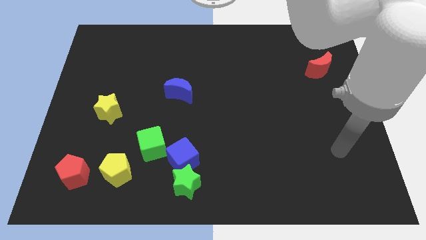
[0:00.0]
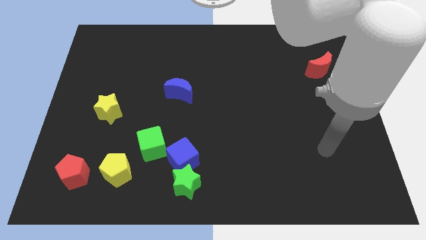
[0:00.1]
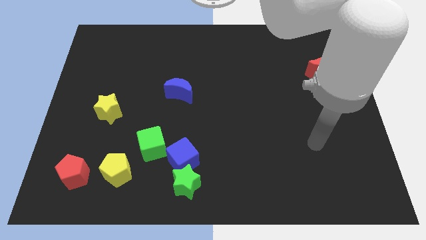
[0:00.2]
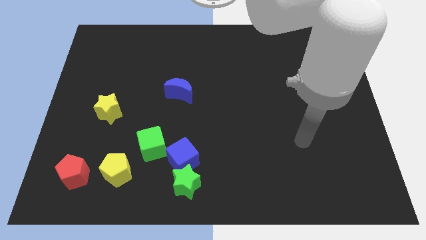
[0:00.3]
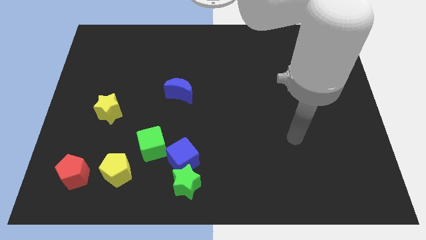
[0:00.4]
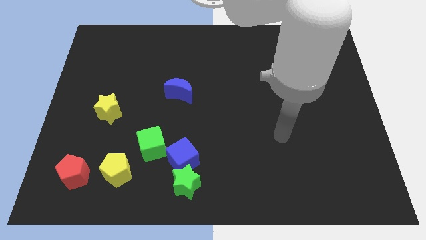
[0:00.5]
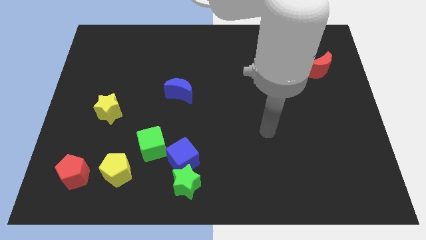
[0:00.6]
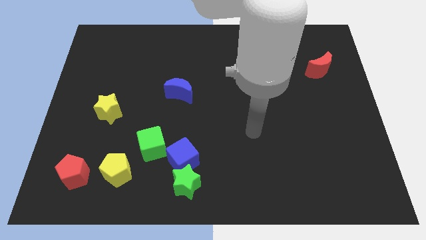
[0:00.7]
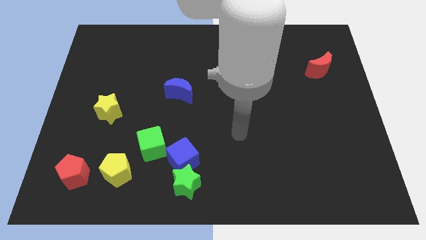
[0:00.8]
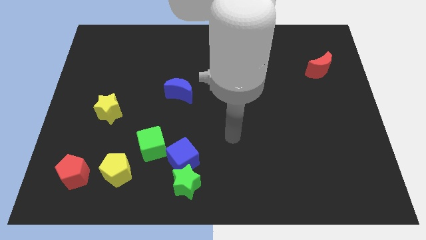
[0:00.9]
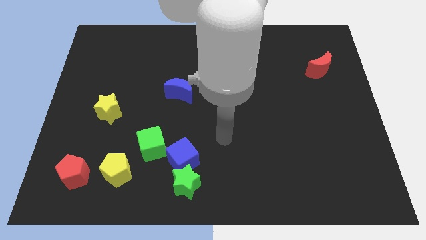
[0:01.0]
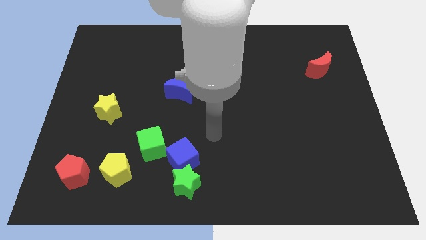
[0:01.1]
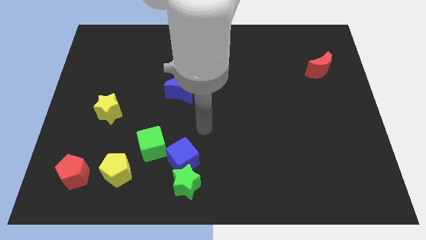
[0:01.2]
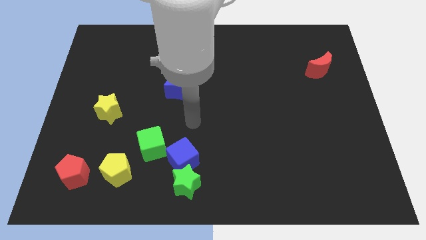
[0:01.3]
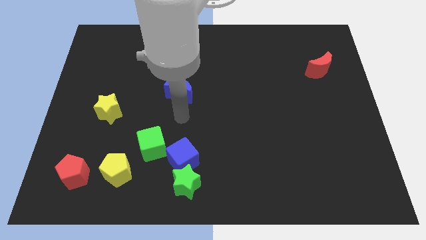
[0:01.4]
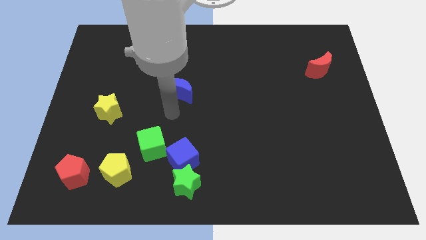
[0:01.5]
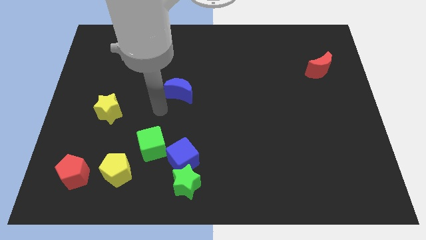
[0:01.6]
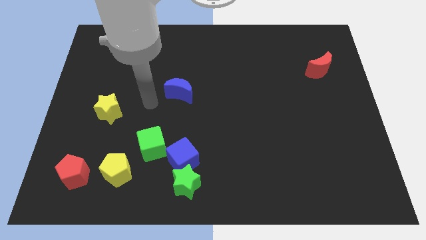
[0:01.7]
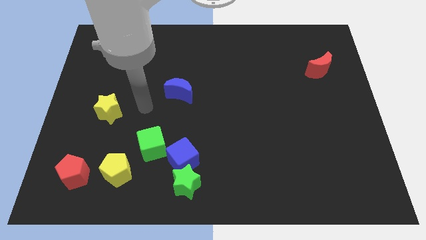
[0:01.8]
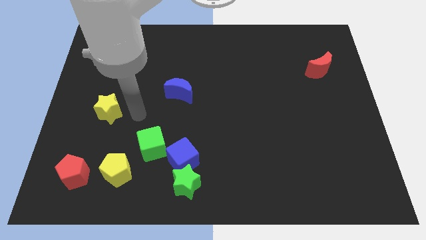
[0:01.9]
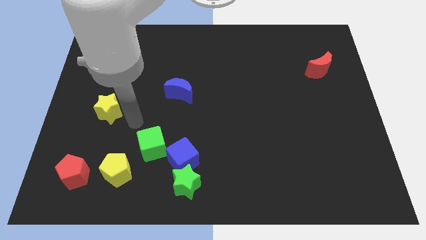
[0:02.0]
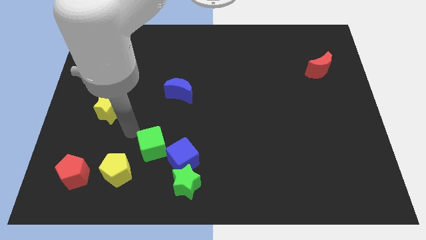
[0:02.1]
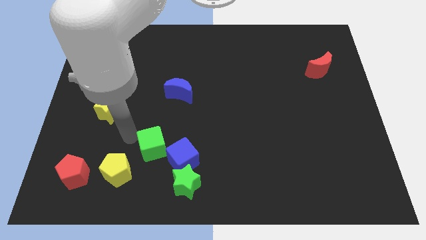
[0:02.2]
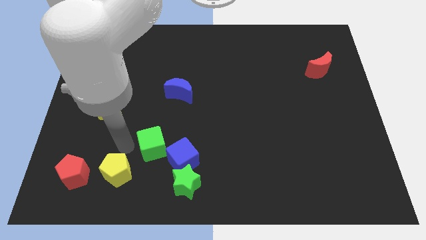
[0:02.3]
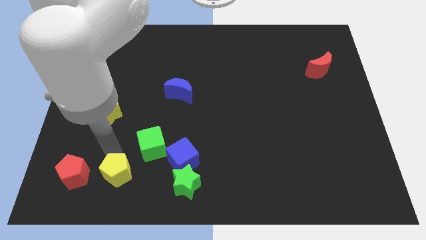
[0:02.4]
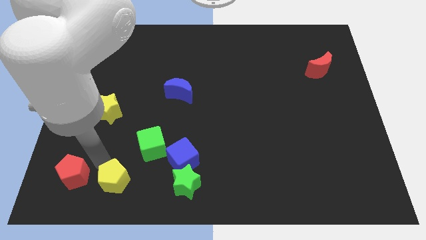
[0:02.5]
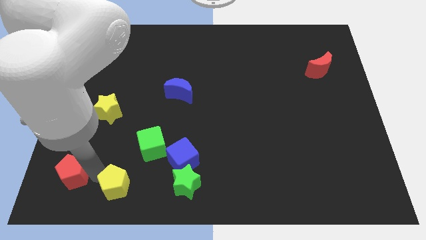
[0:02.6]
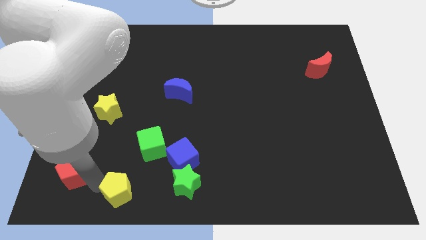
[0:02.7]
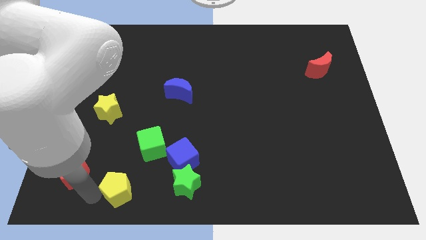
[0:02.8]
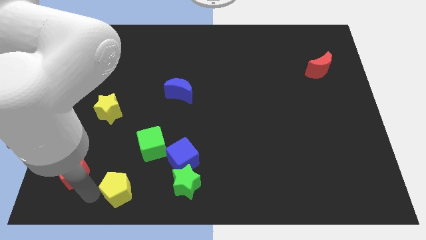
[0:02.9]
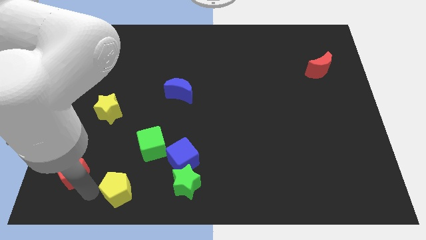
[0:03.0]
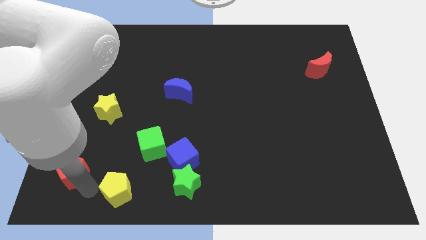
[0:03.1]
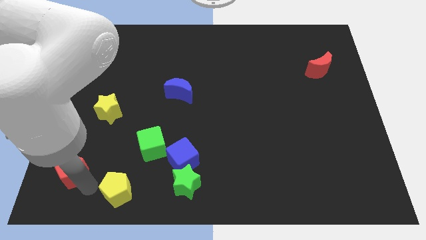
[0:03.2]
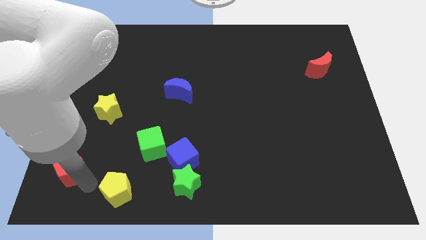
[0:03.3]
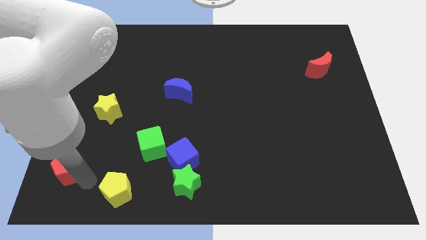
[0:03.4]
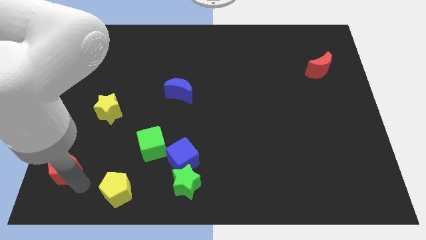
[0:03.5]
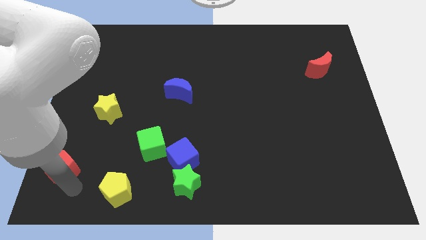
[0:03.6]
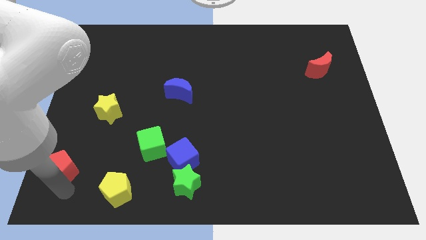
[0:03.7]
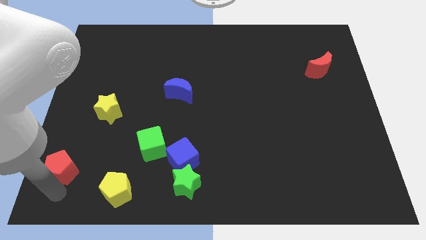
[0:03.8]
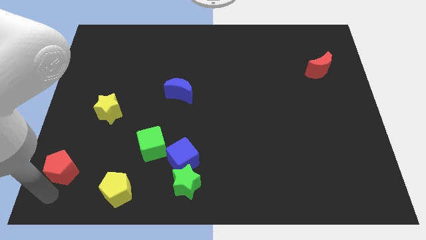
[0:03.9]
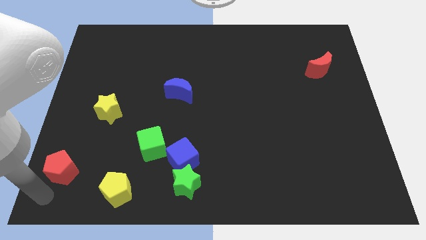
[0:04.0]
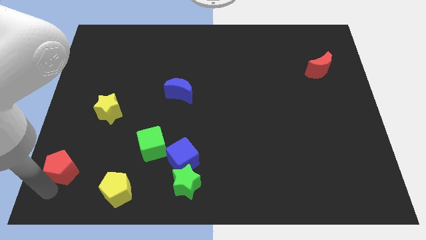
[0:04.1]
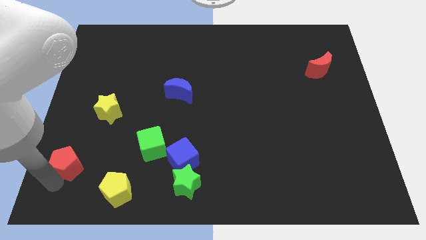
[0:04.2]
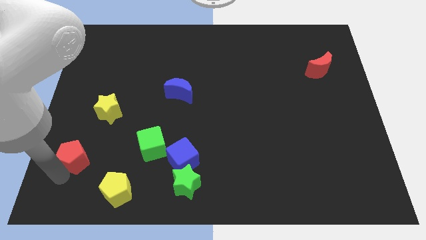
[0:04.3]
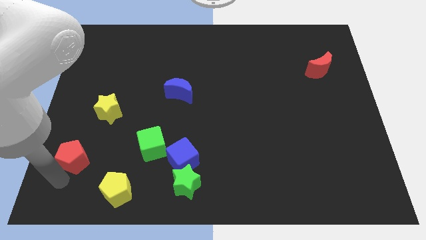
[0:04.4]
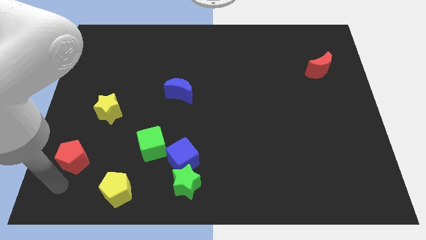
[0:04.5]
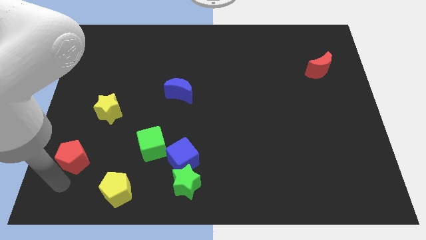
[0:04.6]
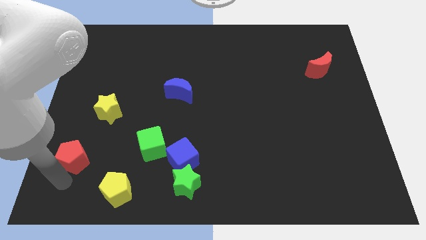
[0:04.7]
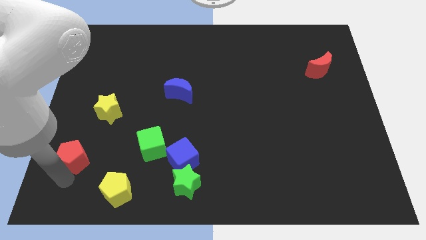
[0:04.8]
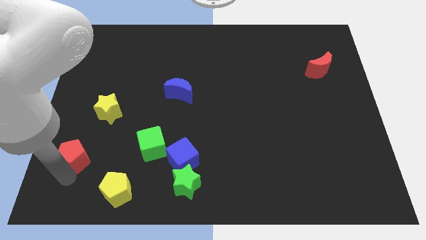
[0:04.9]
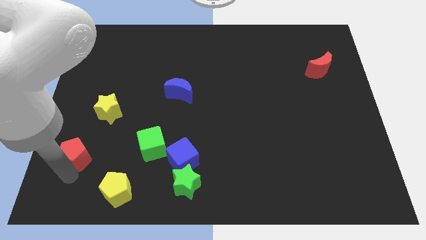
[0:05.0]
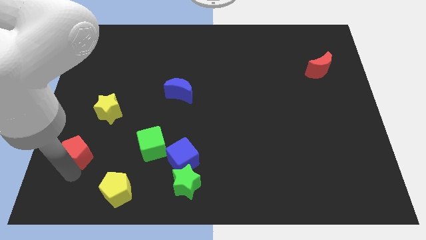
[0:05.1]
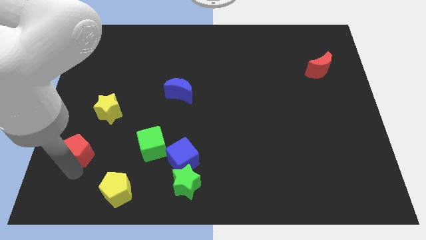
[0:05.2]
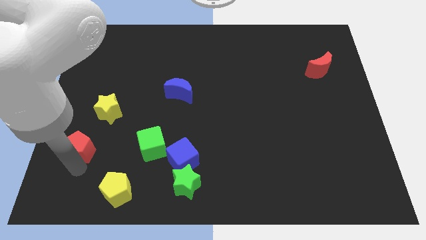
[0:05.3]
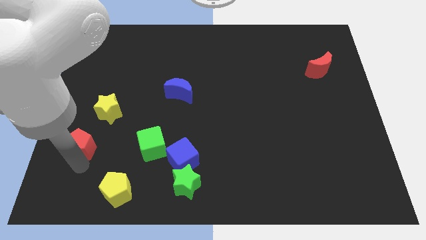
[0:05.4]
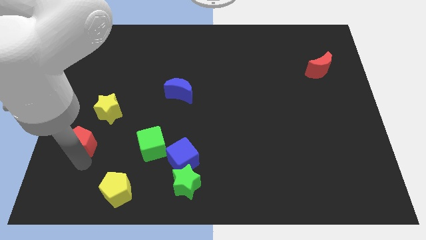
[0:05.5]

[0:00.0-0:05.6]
move the red pentagon up a bit

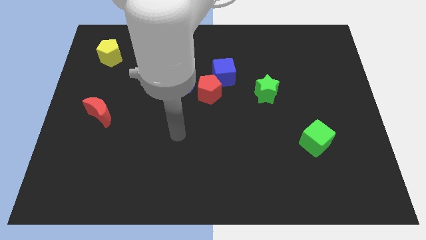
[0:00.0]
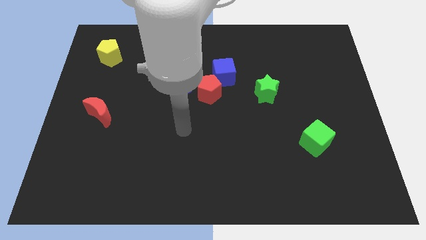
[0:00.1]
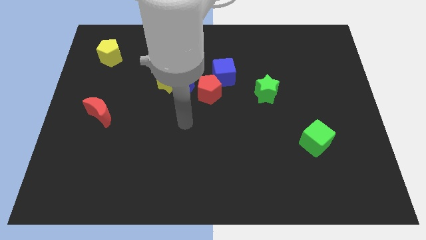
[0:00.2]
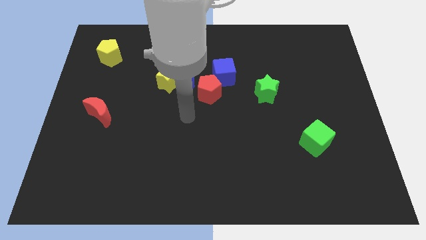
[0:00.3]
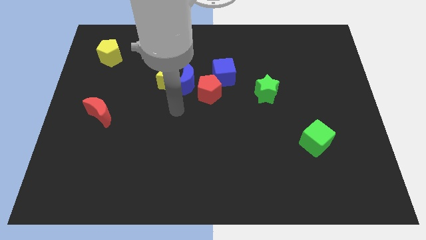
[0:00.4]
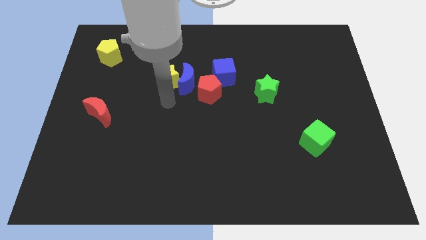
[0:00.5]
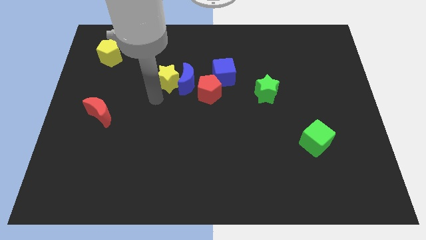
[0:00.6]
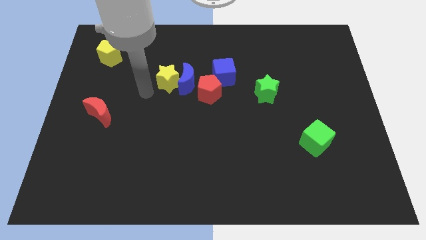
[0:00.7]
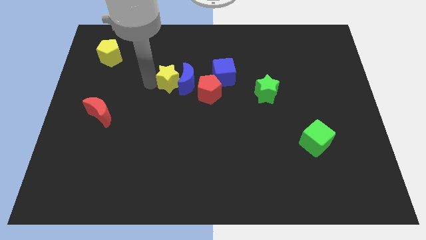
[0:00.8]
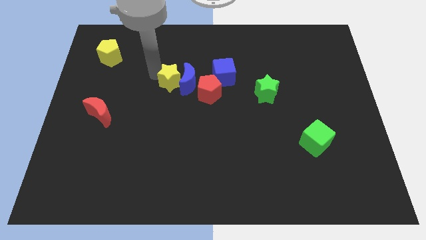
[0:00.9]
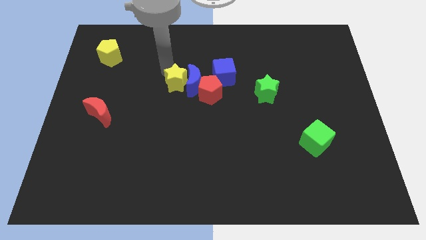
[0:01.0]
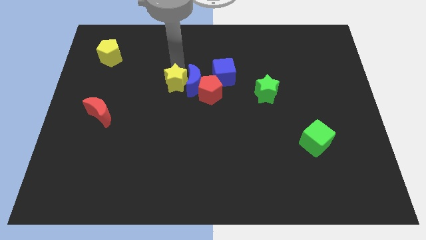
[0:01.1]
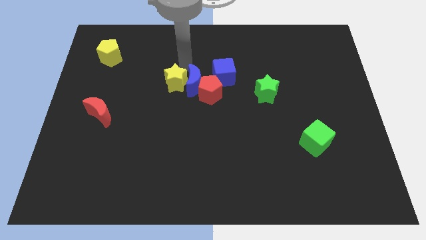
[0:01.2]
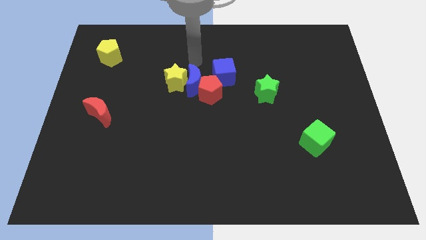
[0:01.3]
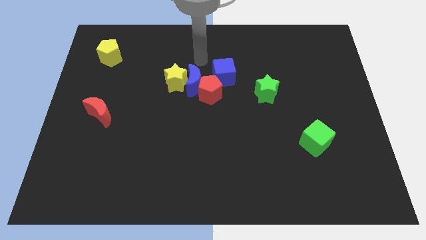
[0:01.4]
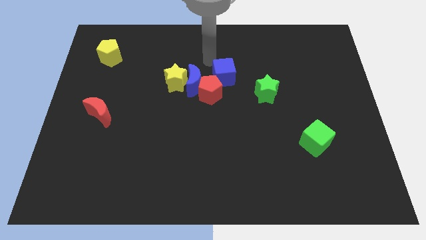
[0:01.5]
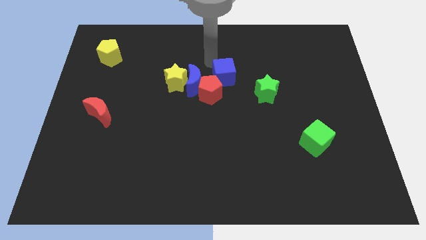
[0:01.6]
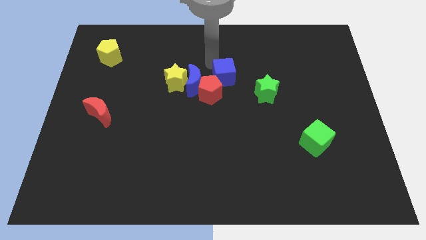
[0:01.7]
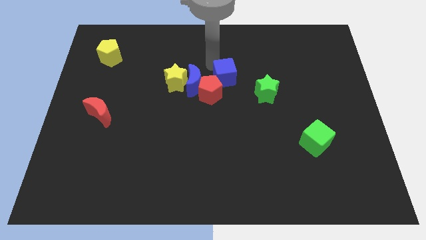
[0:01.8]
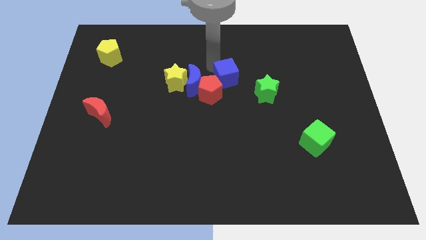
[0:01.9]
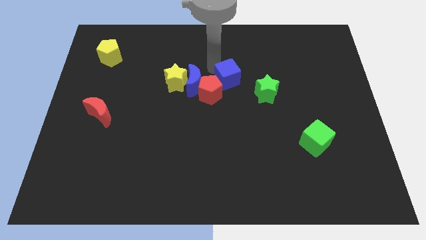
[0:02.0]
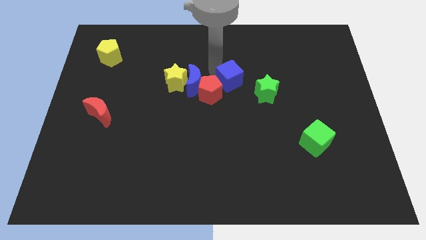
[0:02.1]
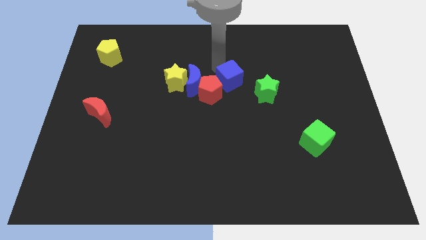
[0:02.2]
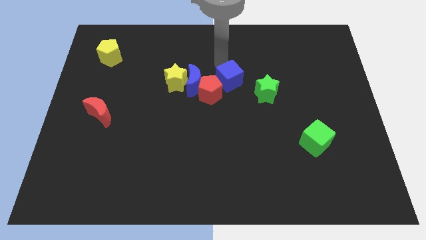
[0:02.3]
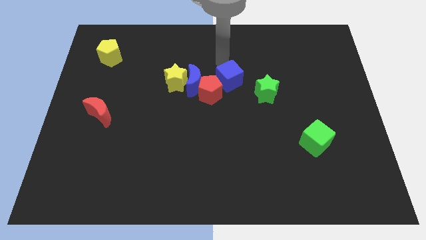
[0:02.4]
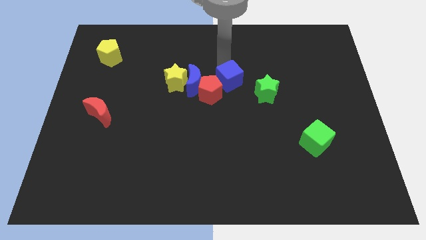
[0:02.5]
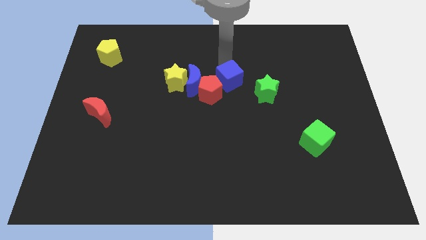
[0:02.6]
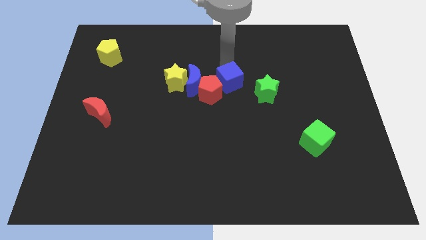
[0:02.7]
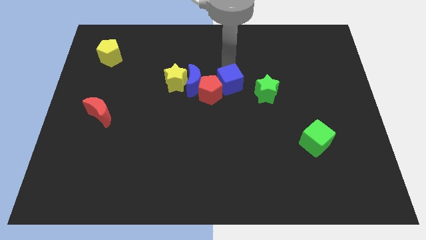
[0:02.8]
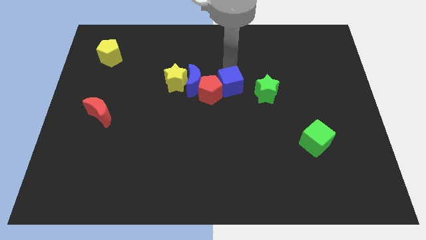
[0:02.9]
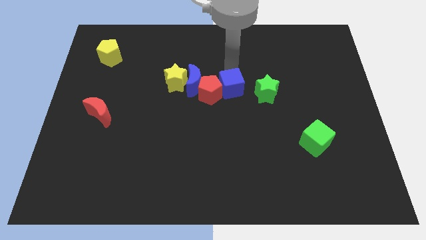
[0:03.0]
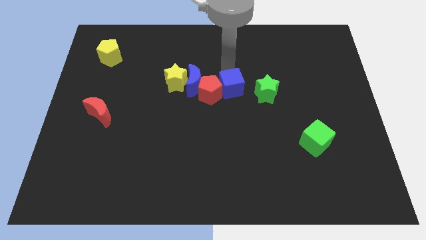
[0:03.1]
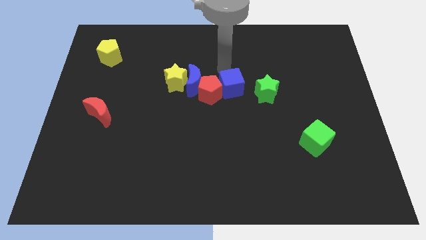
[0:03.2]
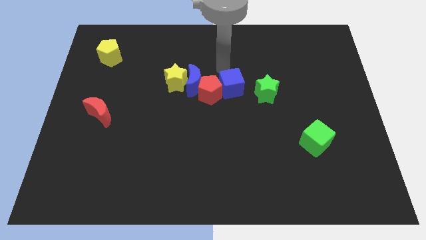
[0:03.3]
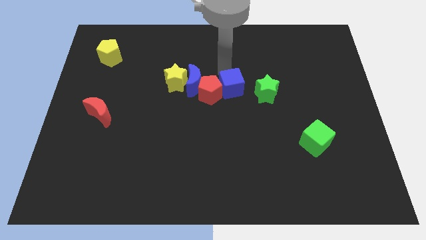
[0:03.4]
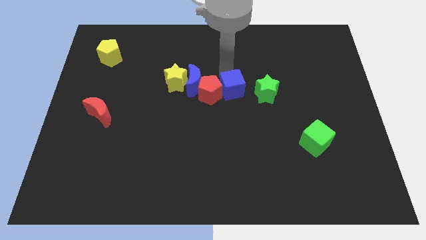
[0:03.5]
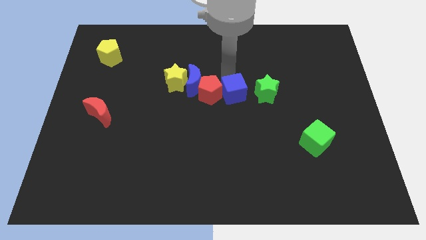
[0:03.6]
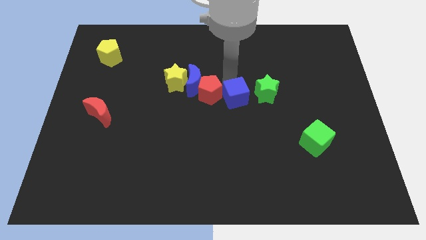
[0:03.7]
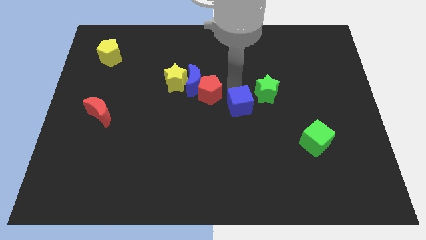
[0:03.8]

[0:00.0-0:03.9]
move the blue cube slightly down
